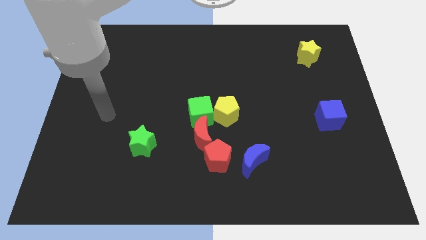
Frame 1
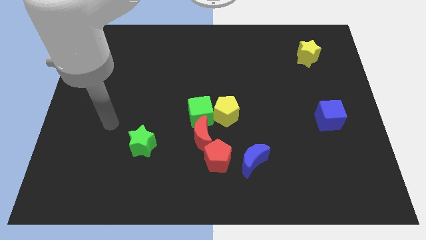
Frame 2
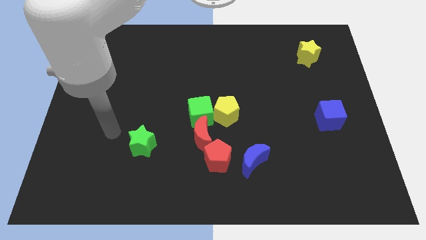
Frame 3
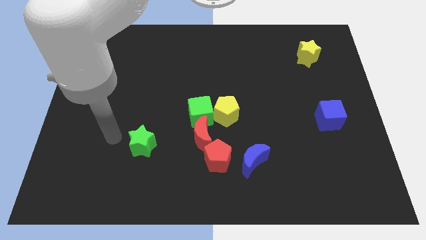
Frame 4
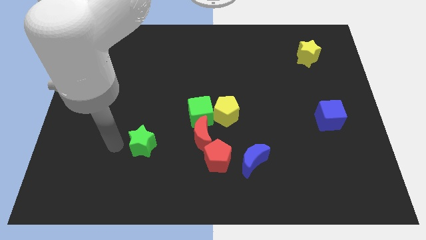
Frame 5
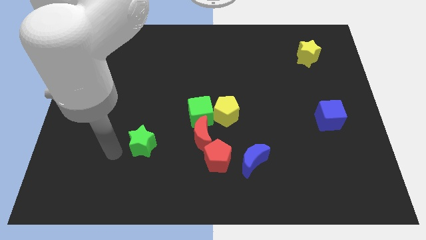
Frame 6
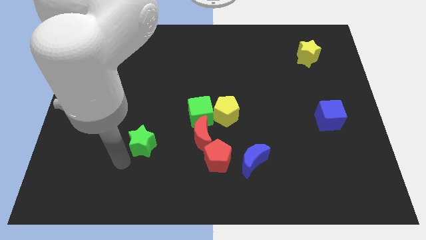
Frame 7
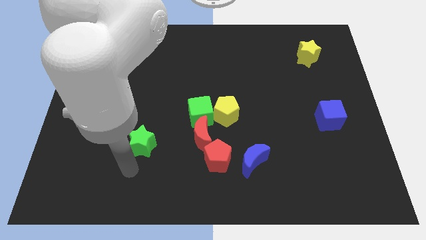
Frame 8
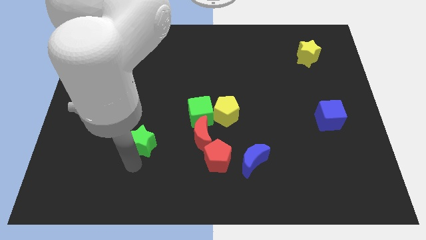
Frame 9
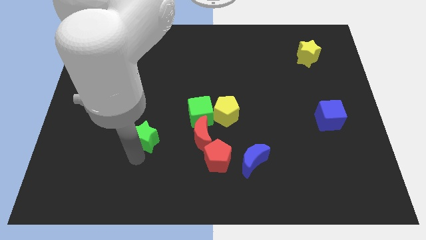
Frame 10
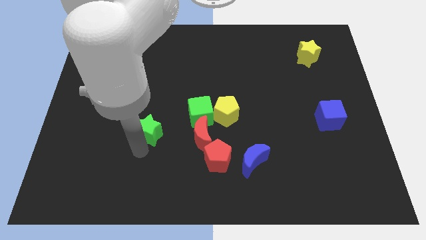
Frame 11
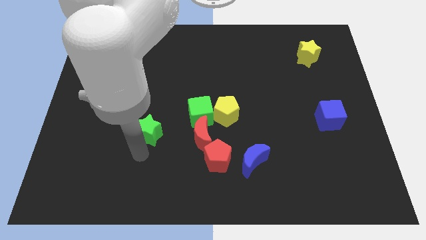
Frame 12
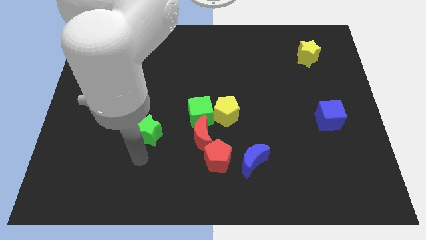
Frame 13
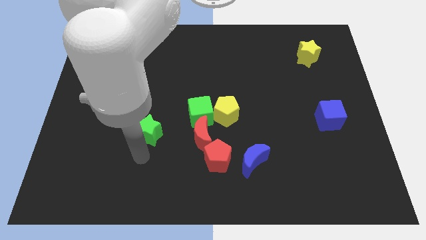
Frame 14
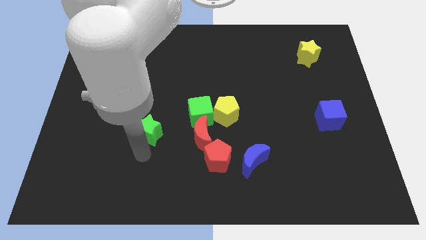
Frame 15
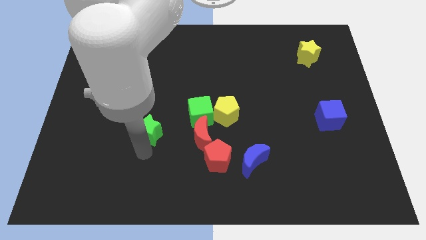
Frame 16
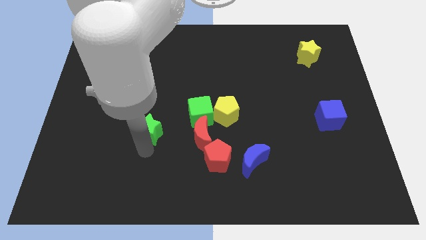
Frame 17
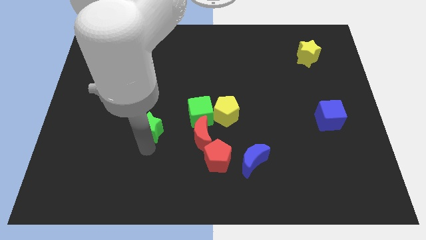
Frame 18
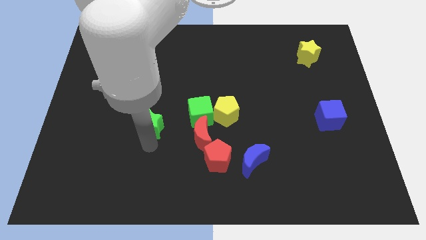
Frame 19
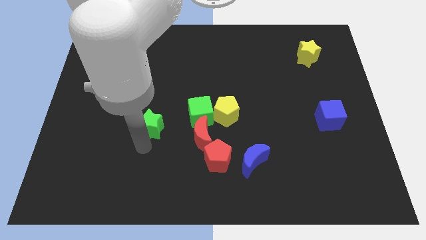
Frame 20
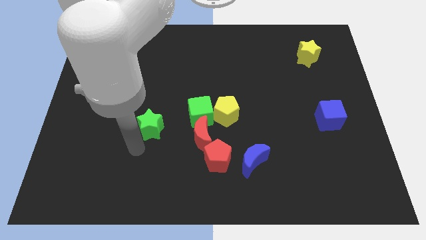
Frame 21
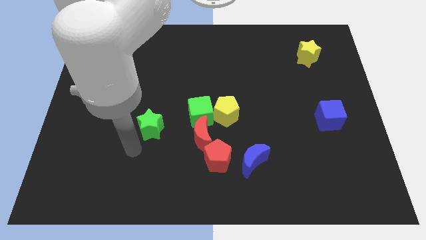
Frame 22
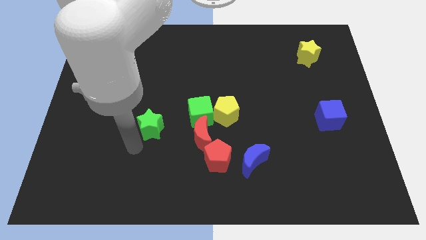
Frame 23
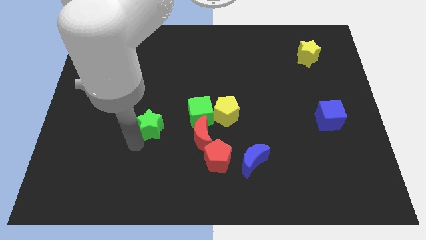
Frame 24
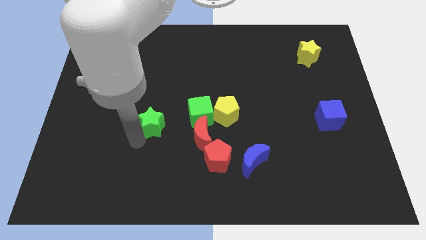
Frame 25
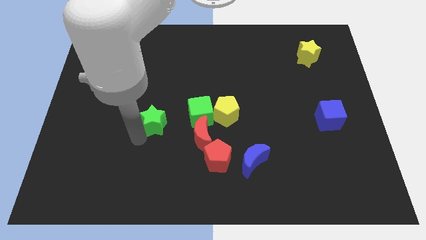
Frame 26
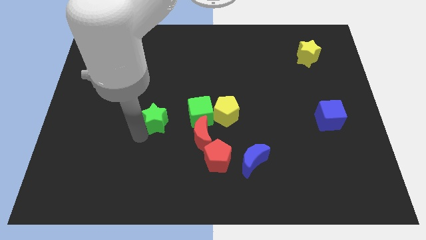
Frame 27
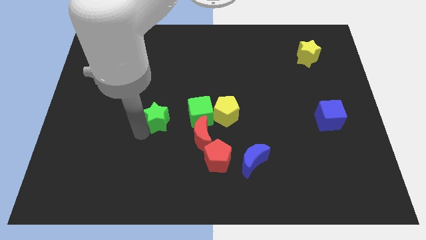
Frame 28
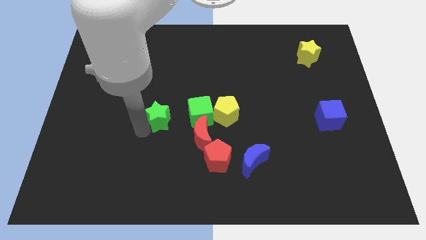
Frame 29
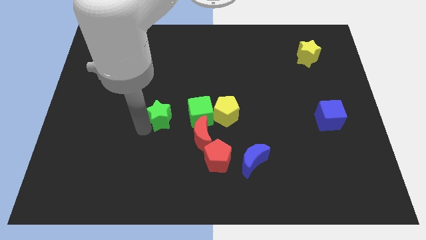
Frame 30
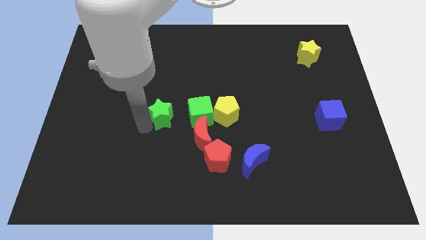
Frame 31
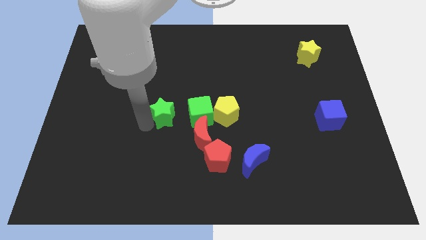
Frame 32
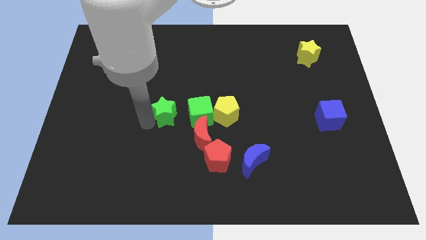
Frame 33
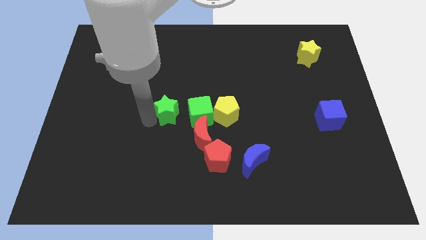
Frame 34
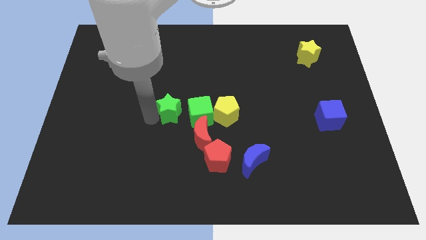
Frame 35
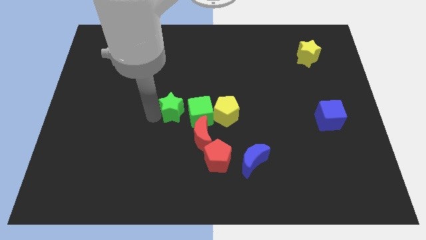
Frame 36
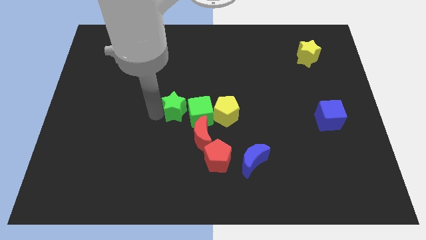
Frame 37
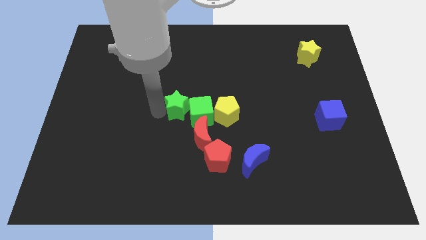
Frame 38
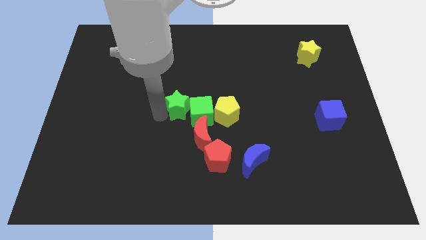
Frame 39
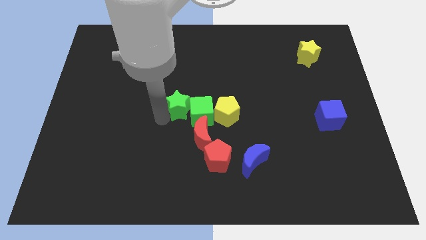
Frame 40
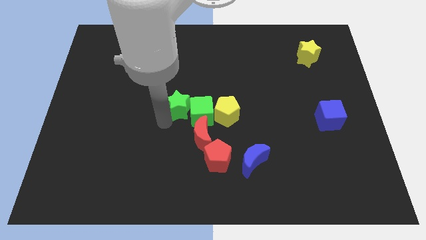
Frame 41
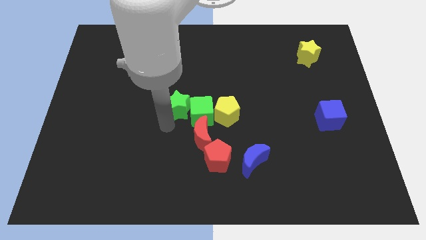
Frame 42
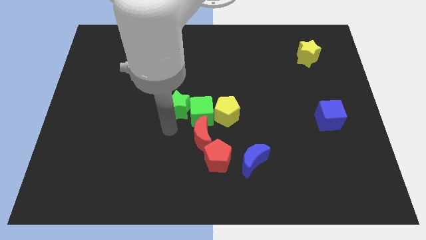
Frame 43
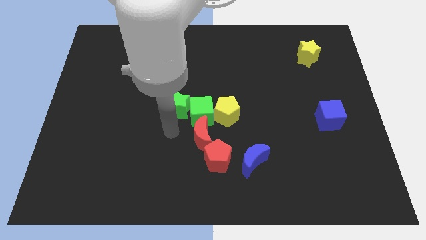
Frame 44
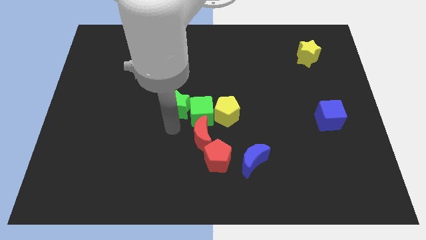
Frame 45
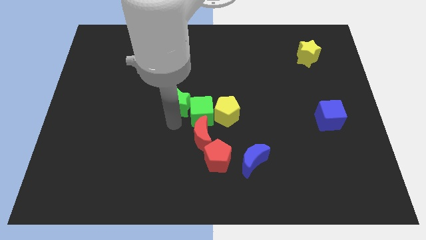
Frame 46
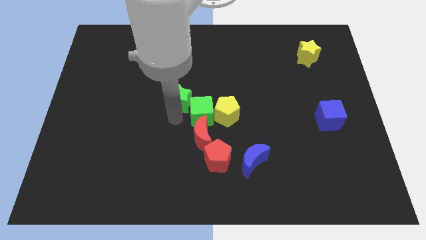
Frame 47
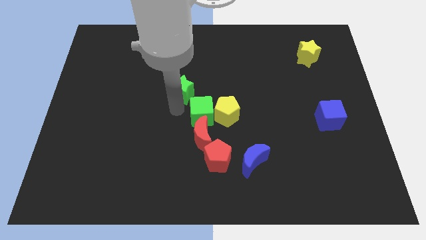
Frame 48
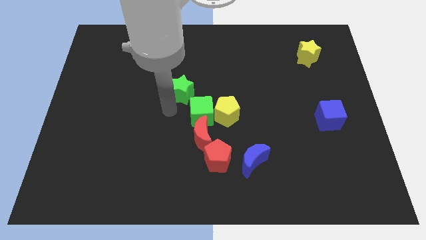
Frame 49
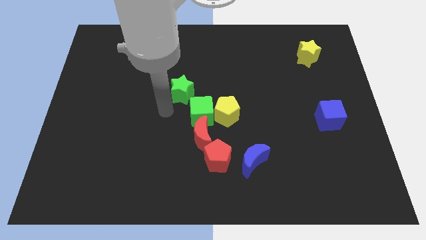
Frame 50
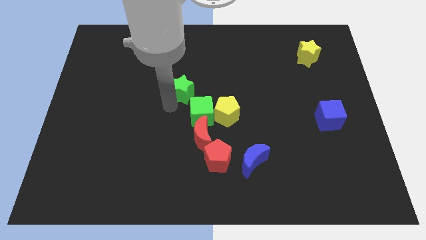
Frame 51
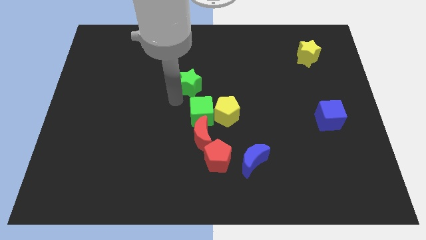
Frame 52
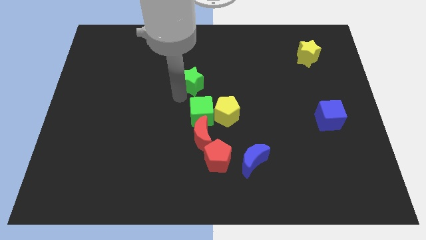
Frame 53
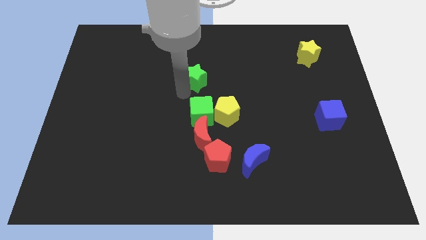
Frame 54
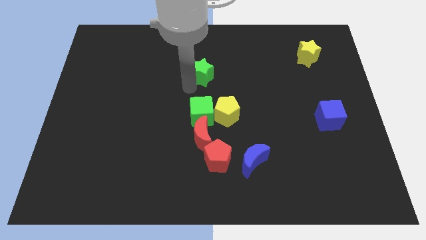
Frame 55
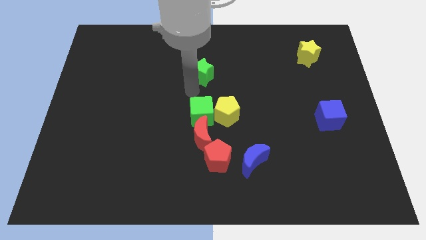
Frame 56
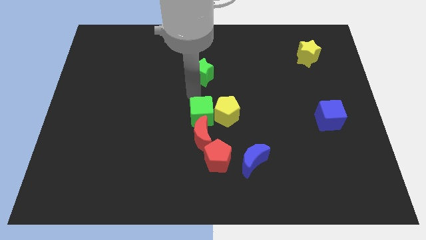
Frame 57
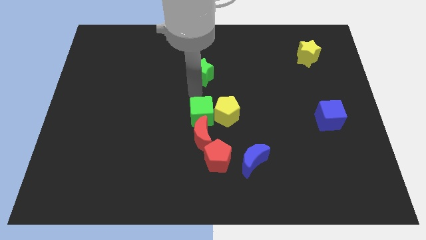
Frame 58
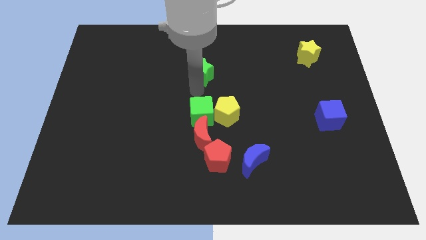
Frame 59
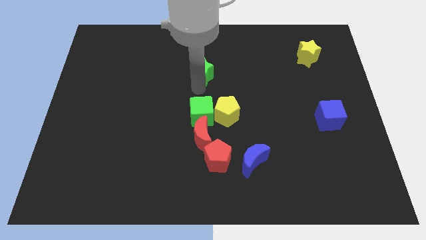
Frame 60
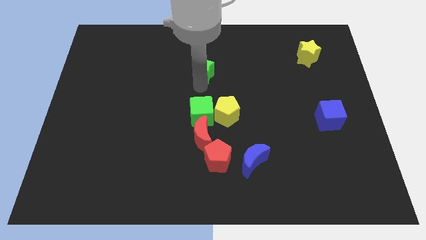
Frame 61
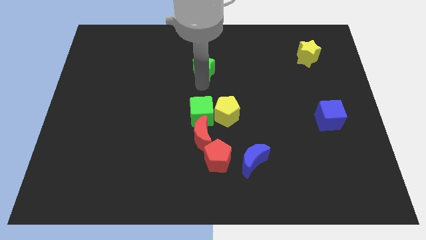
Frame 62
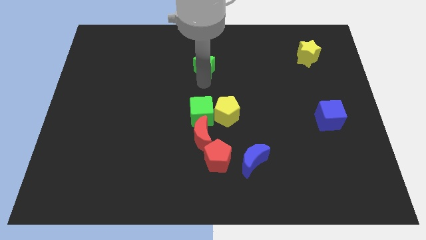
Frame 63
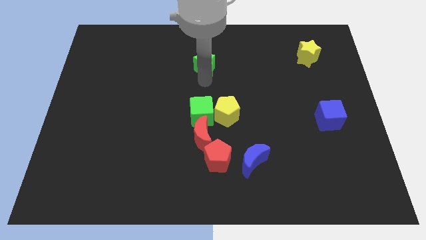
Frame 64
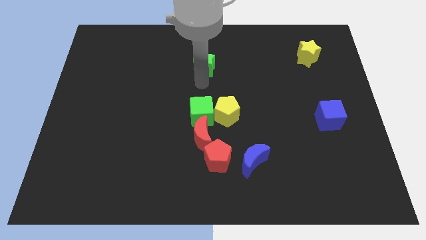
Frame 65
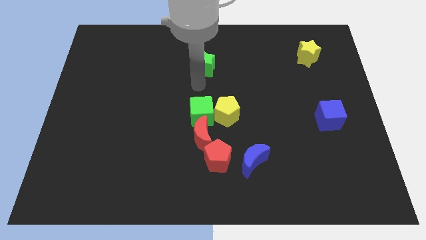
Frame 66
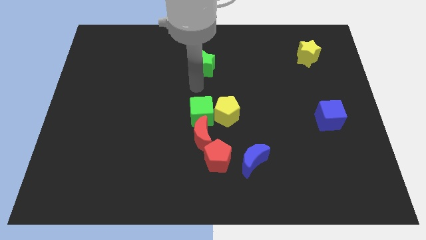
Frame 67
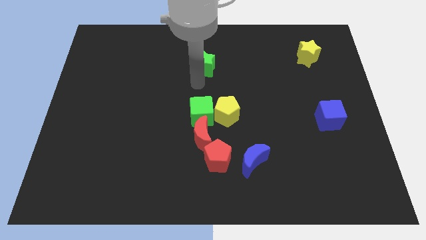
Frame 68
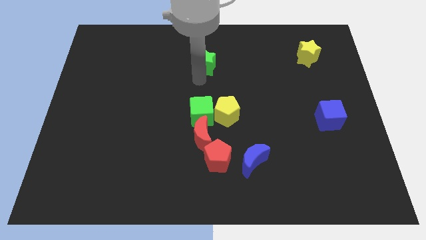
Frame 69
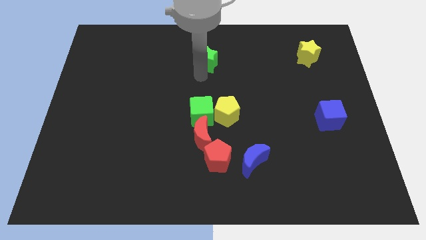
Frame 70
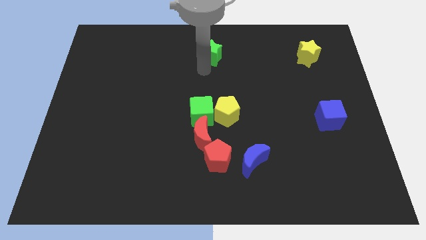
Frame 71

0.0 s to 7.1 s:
push the green star to the top side
